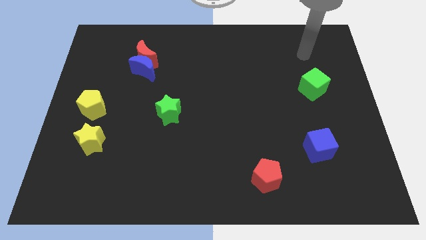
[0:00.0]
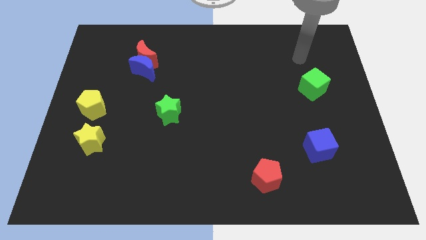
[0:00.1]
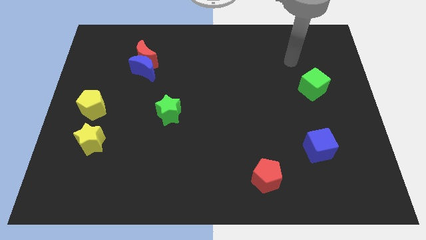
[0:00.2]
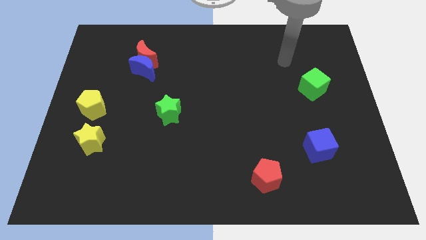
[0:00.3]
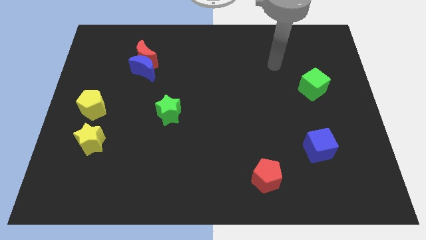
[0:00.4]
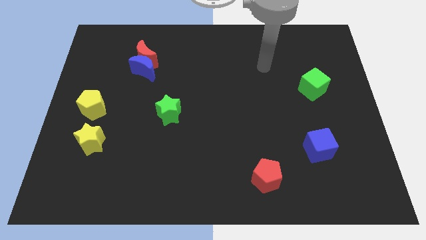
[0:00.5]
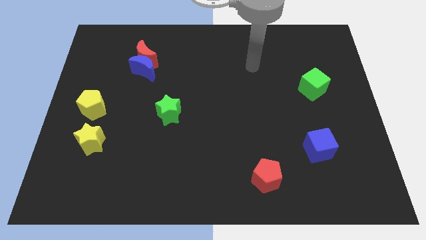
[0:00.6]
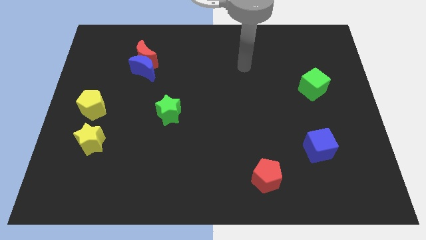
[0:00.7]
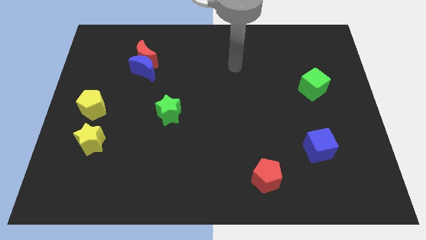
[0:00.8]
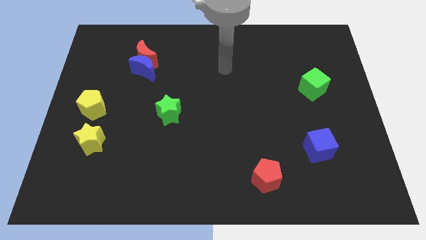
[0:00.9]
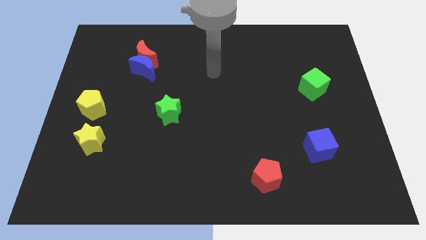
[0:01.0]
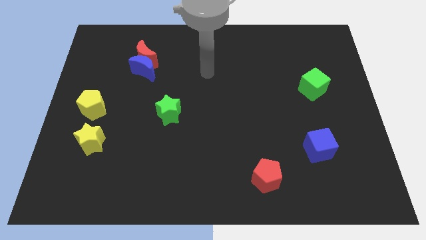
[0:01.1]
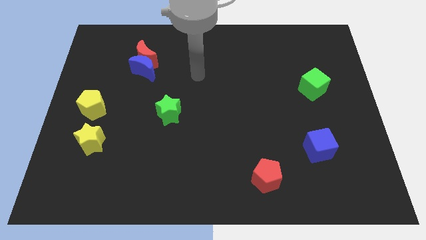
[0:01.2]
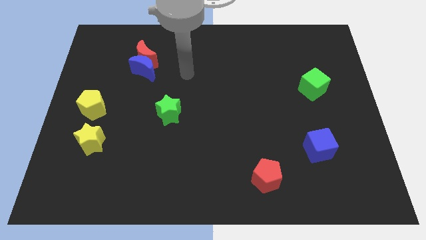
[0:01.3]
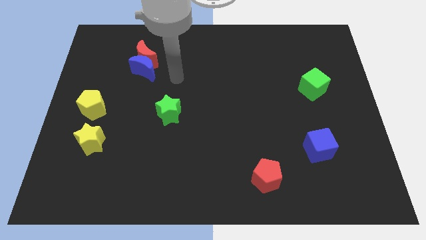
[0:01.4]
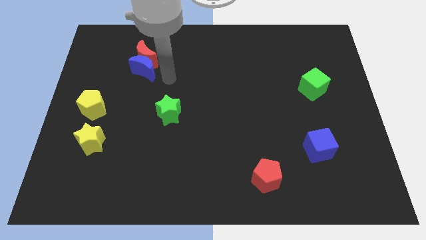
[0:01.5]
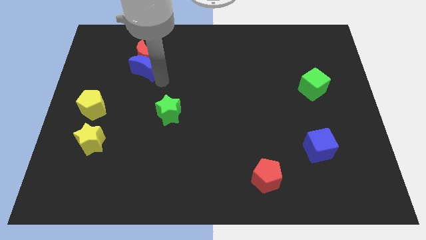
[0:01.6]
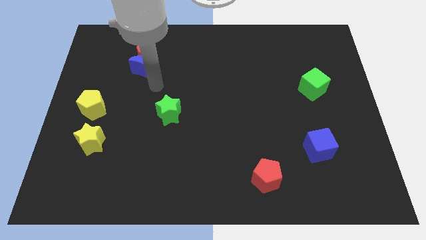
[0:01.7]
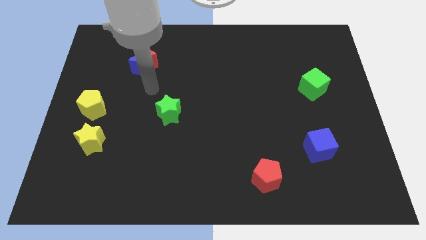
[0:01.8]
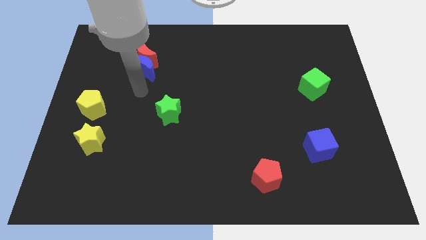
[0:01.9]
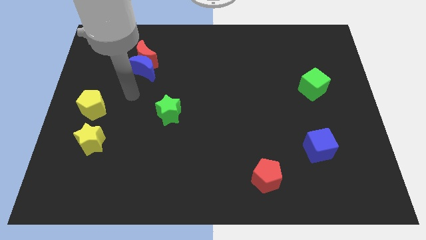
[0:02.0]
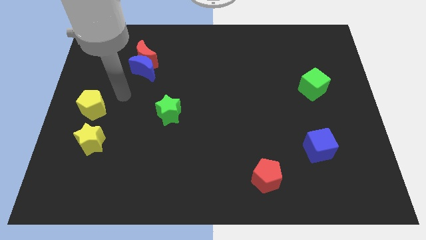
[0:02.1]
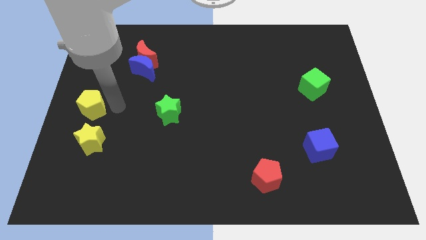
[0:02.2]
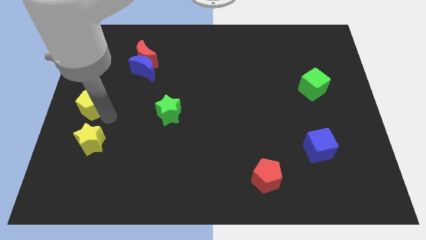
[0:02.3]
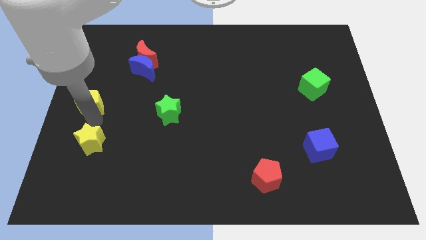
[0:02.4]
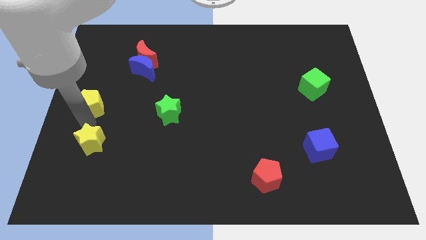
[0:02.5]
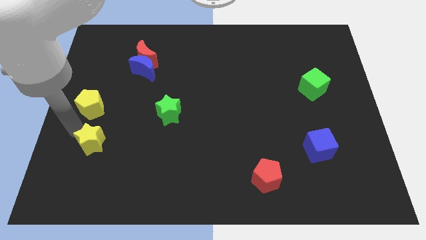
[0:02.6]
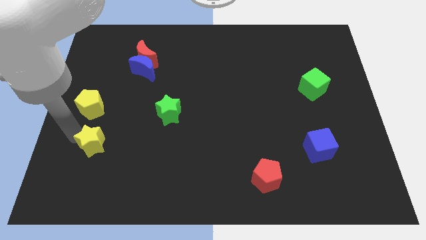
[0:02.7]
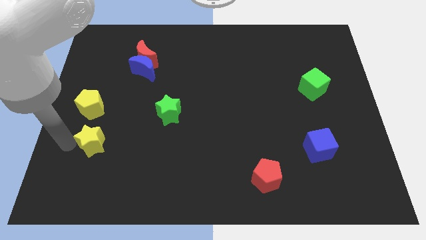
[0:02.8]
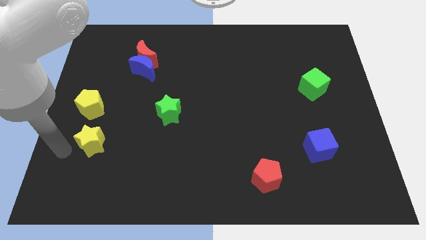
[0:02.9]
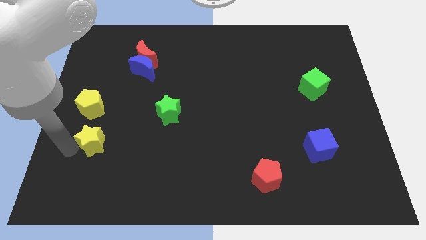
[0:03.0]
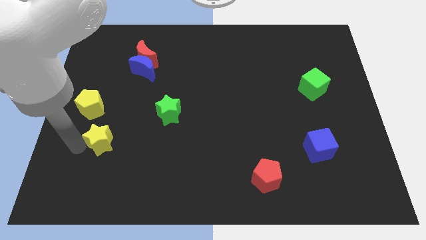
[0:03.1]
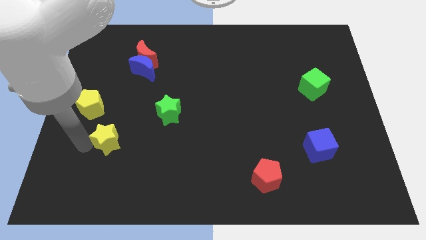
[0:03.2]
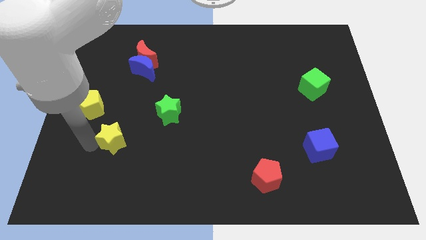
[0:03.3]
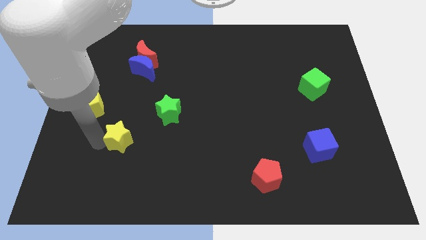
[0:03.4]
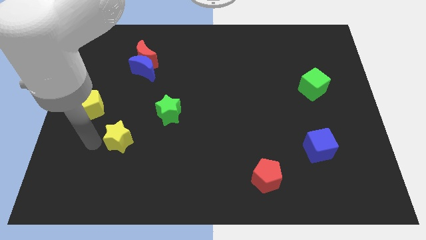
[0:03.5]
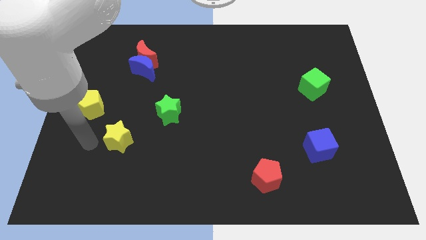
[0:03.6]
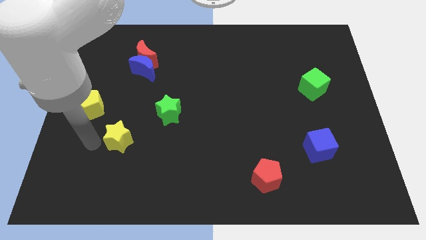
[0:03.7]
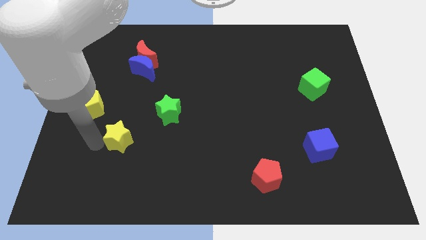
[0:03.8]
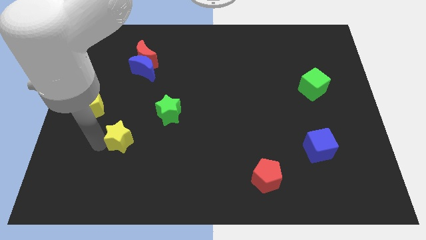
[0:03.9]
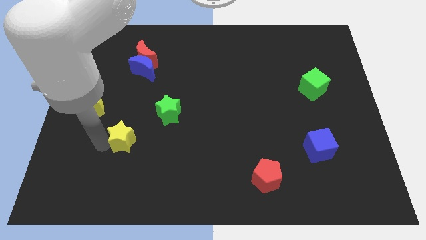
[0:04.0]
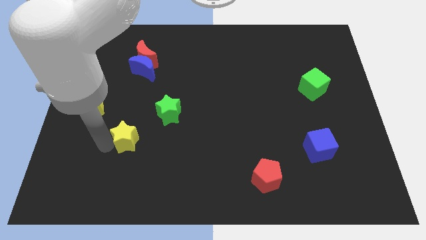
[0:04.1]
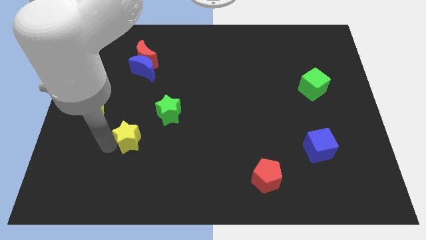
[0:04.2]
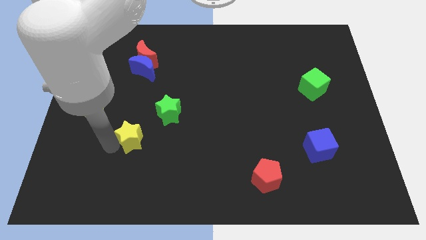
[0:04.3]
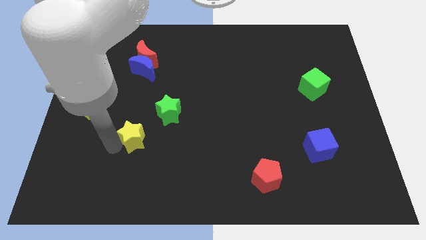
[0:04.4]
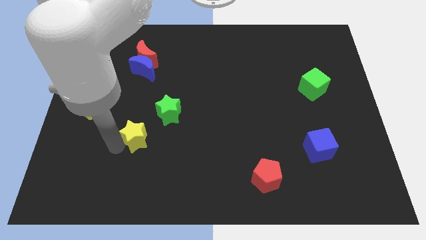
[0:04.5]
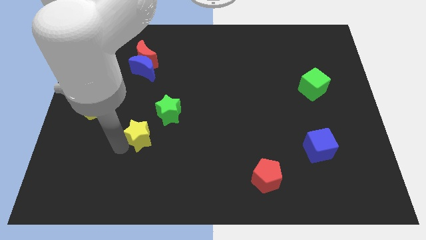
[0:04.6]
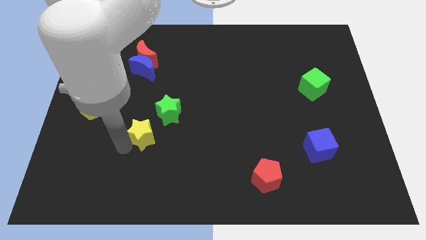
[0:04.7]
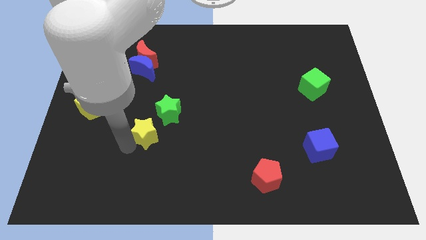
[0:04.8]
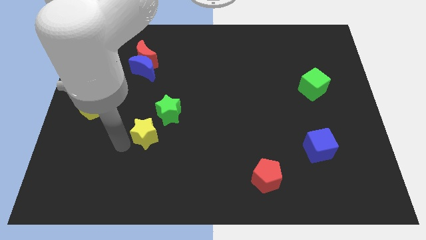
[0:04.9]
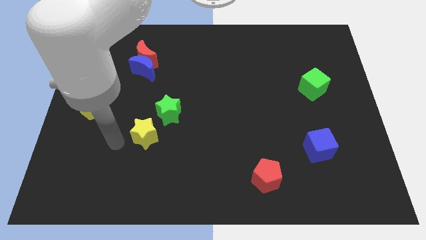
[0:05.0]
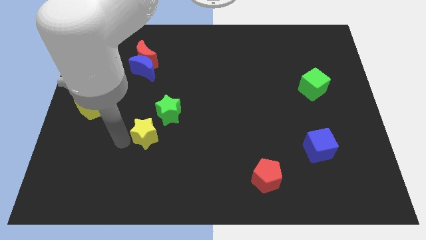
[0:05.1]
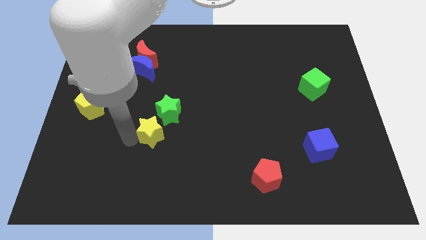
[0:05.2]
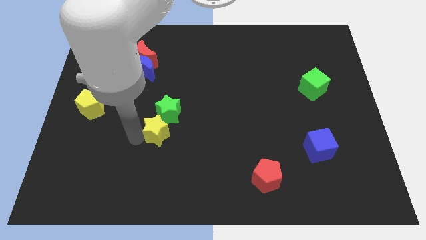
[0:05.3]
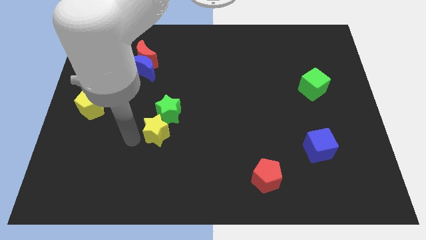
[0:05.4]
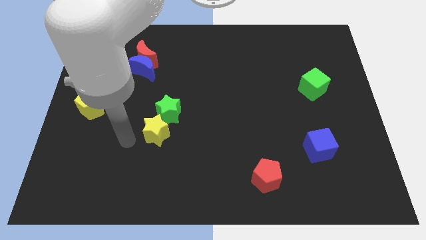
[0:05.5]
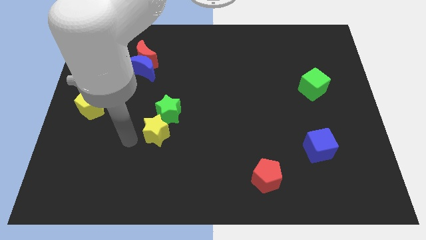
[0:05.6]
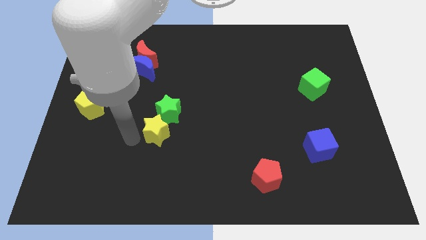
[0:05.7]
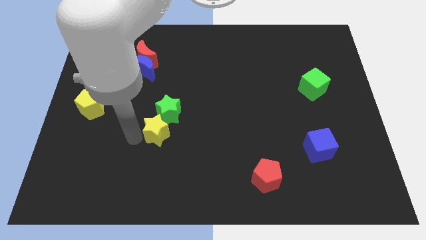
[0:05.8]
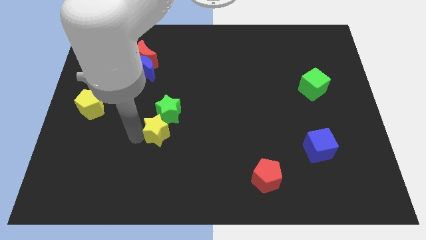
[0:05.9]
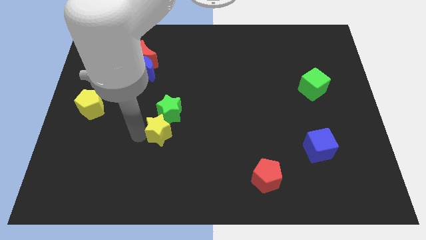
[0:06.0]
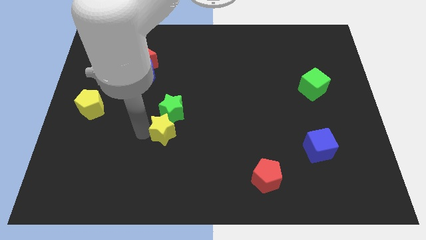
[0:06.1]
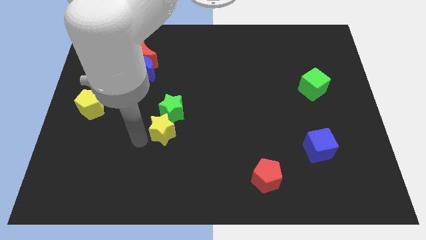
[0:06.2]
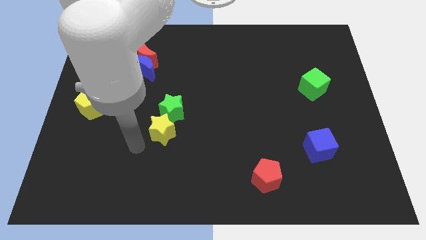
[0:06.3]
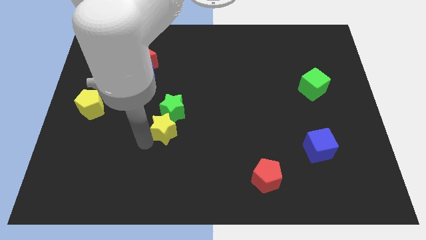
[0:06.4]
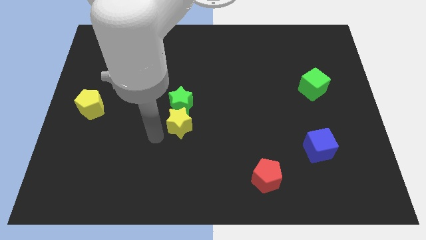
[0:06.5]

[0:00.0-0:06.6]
move the yellow star to the center
